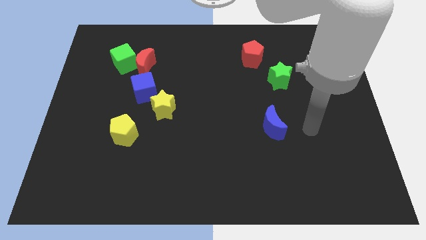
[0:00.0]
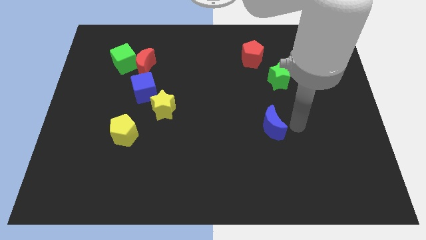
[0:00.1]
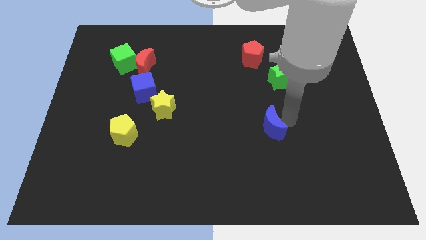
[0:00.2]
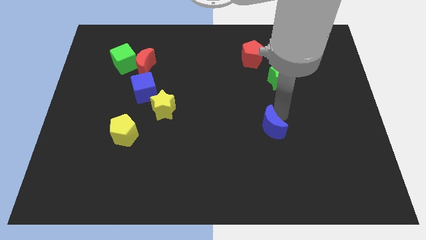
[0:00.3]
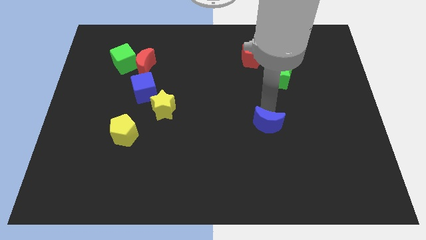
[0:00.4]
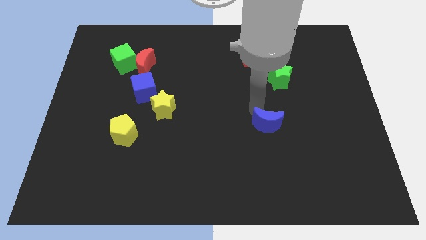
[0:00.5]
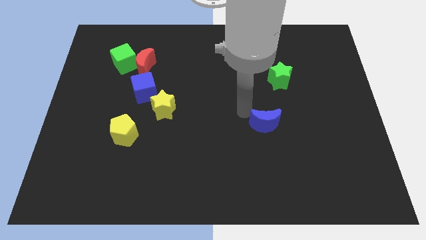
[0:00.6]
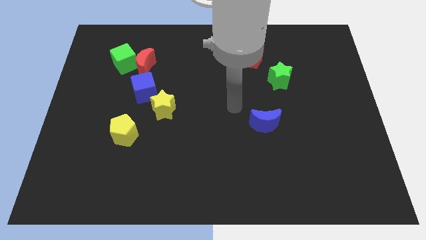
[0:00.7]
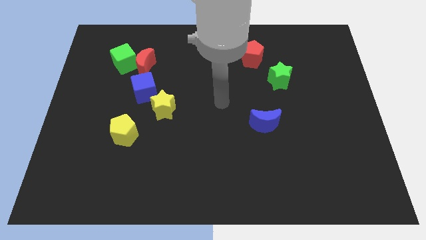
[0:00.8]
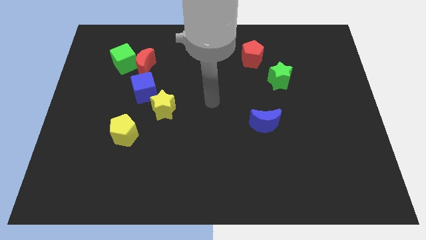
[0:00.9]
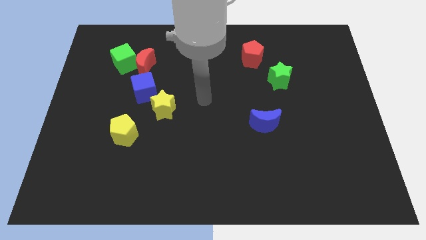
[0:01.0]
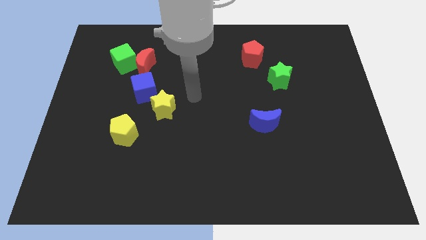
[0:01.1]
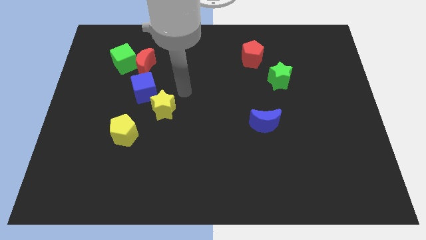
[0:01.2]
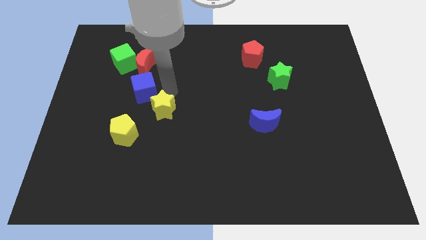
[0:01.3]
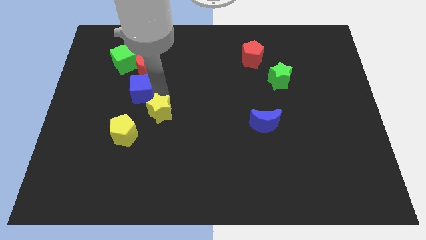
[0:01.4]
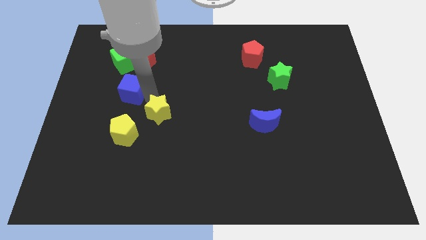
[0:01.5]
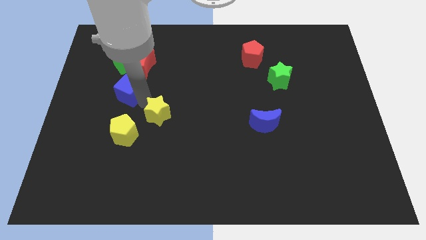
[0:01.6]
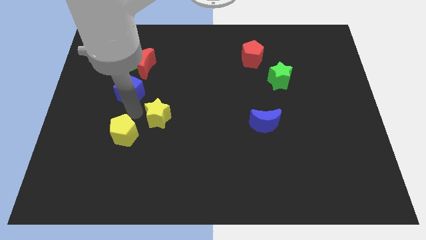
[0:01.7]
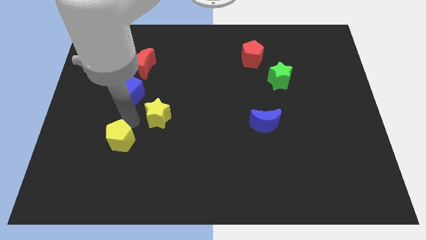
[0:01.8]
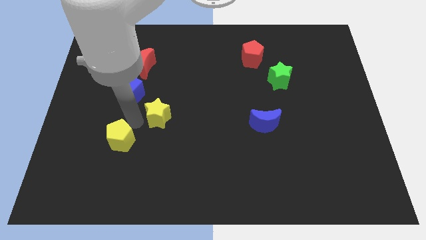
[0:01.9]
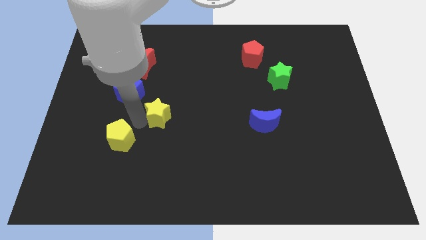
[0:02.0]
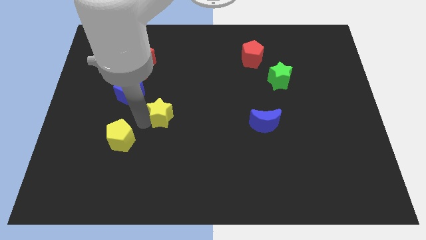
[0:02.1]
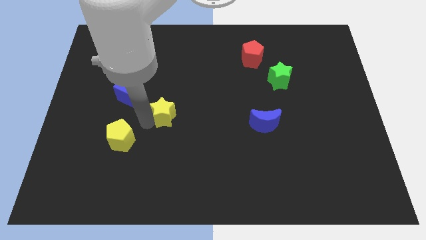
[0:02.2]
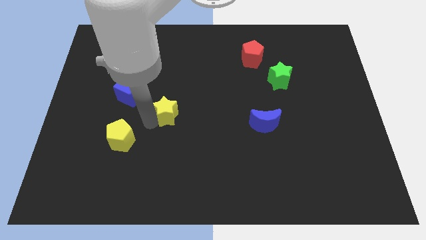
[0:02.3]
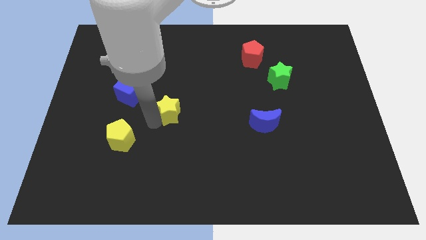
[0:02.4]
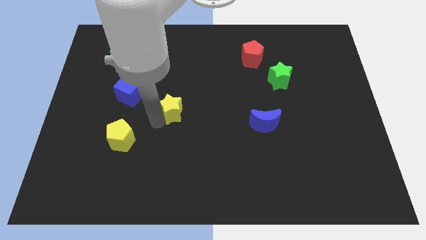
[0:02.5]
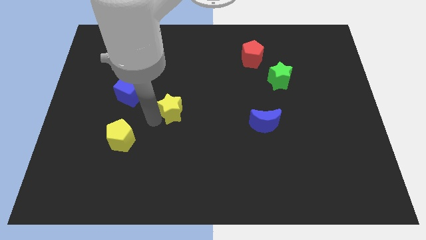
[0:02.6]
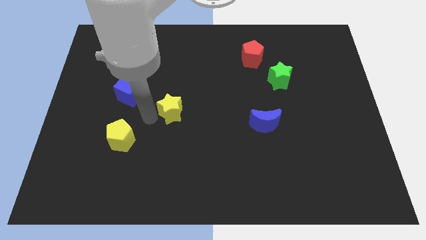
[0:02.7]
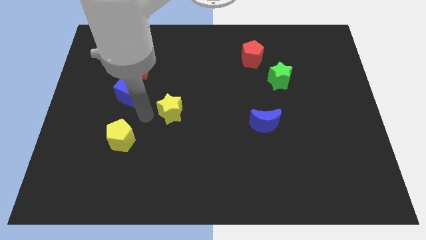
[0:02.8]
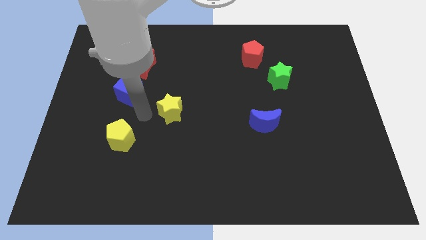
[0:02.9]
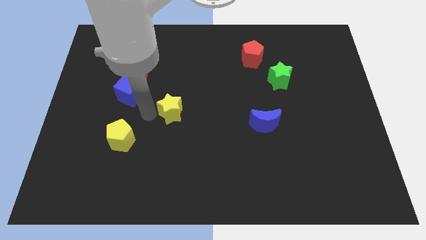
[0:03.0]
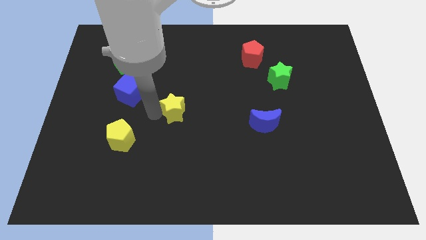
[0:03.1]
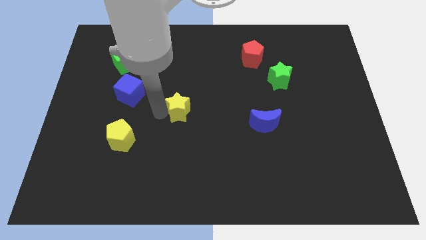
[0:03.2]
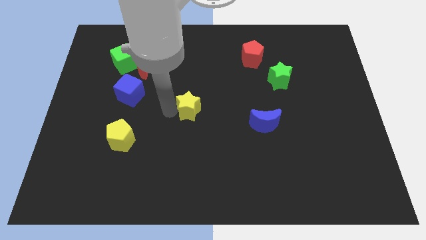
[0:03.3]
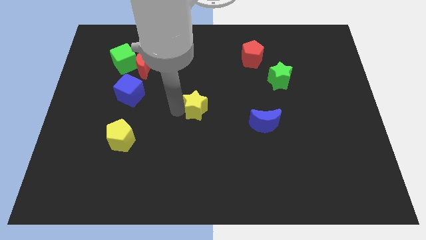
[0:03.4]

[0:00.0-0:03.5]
slightly push the yellow star right

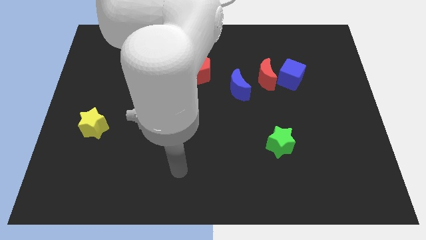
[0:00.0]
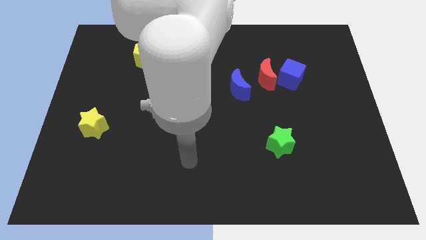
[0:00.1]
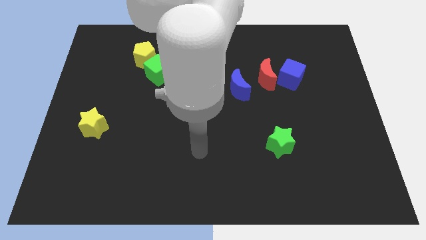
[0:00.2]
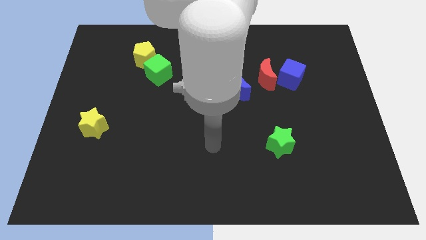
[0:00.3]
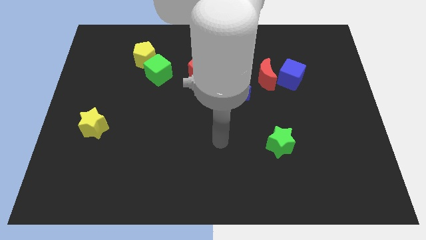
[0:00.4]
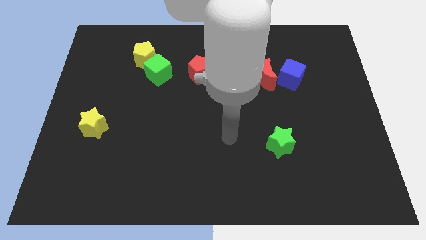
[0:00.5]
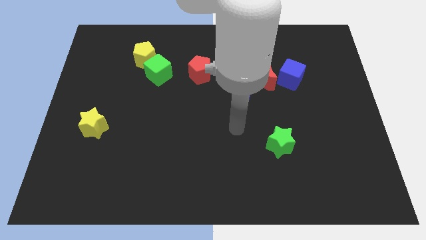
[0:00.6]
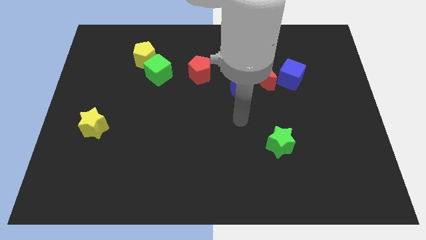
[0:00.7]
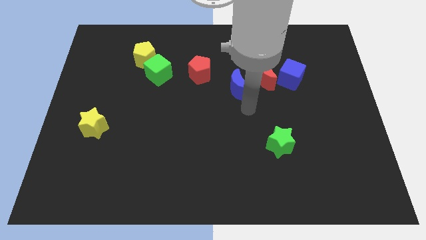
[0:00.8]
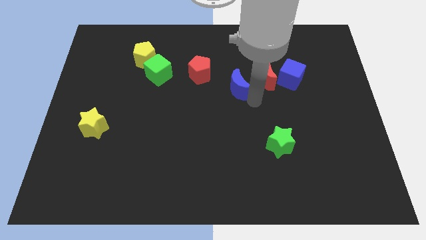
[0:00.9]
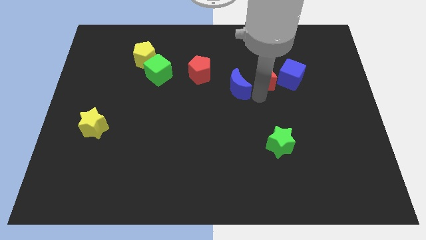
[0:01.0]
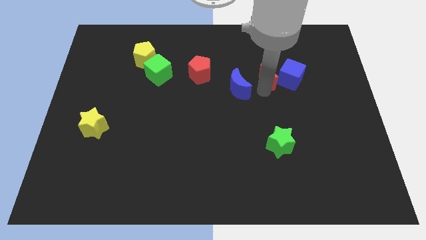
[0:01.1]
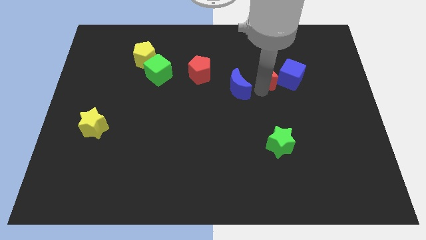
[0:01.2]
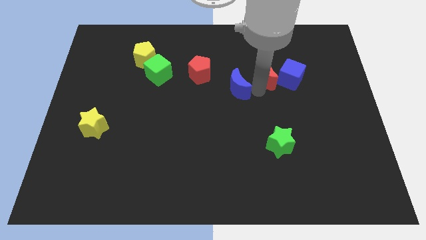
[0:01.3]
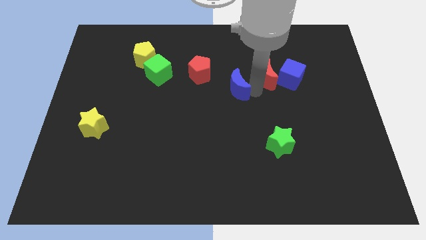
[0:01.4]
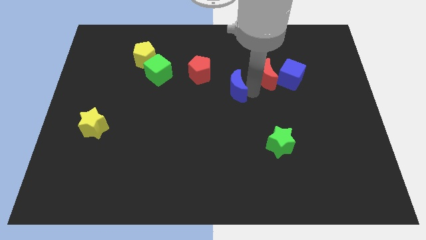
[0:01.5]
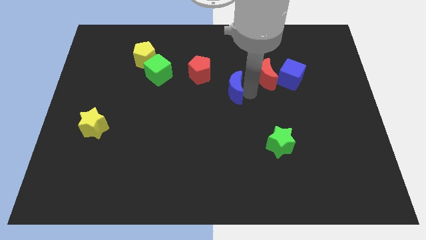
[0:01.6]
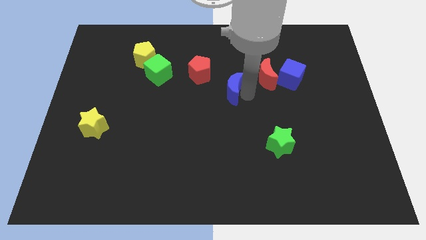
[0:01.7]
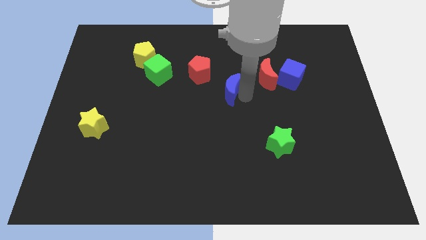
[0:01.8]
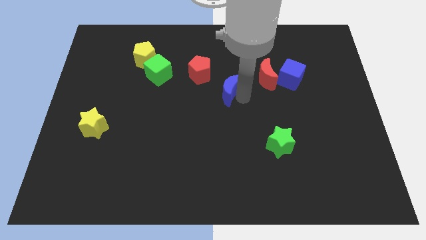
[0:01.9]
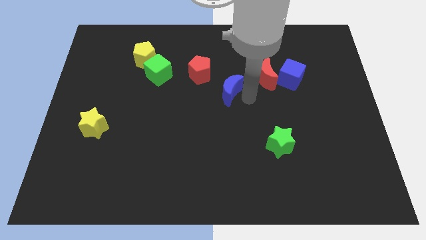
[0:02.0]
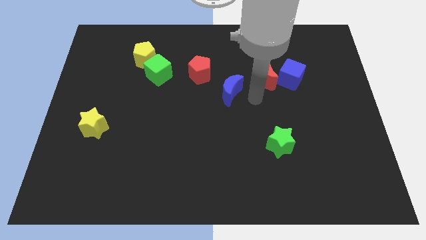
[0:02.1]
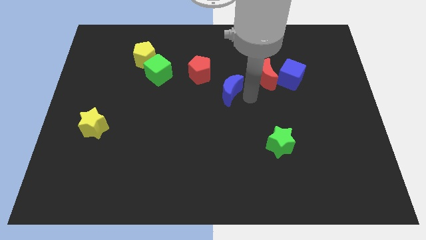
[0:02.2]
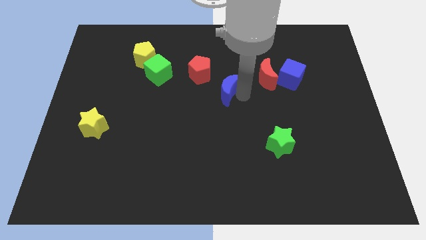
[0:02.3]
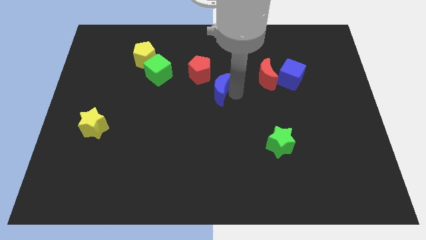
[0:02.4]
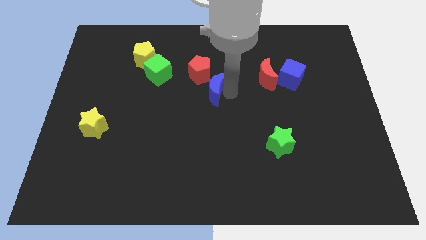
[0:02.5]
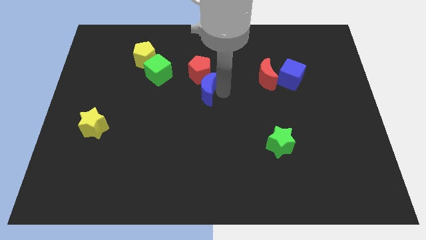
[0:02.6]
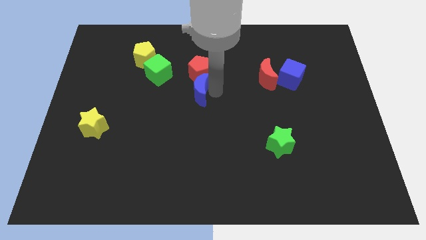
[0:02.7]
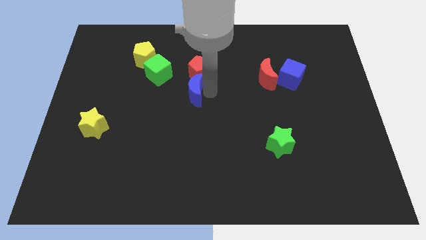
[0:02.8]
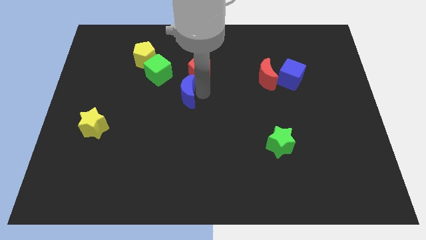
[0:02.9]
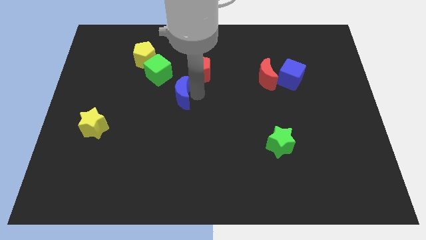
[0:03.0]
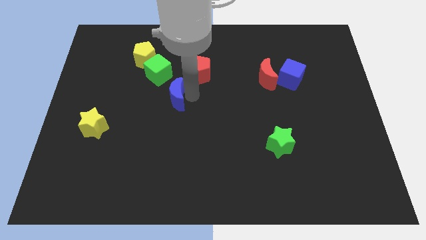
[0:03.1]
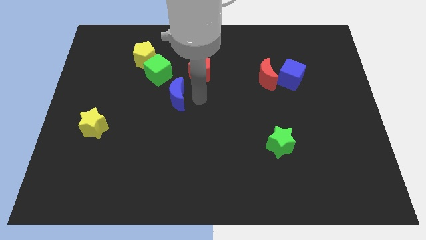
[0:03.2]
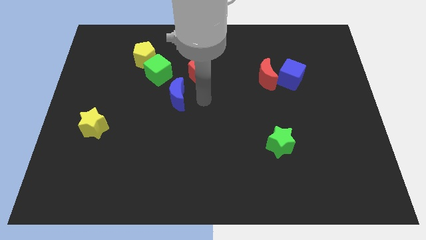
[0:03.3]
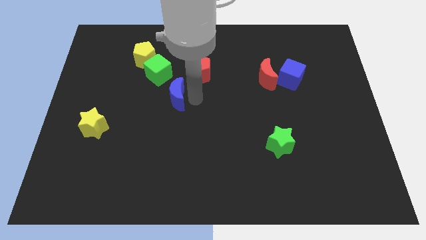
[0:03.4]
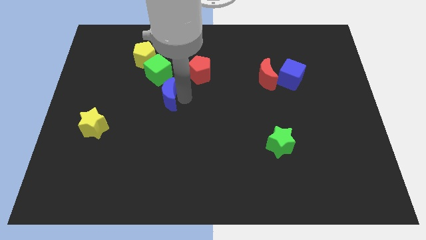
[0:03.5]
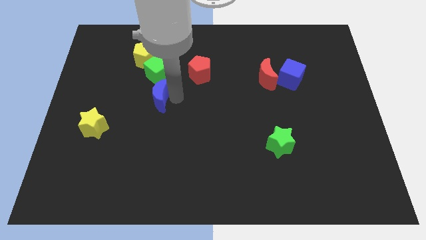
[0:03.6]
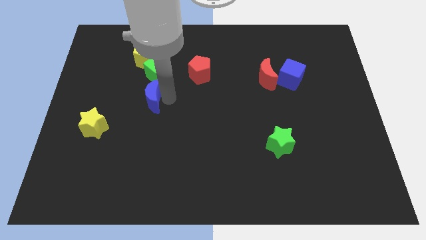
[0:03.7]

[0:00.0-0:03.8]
slide the blue moon to the left

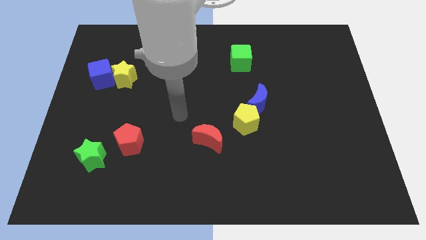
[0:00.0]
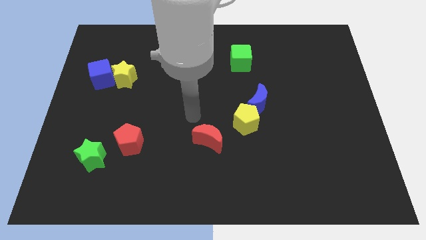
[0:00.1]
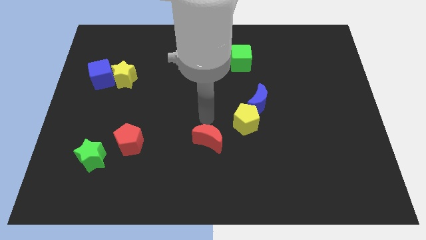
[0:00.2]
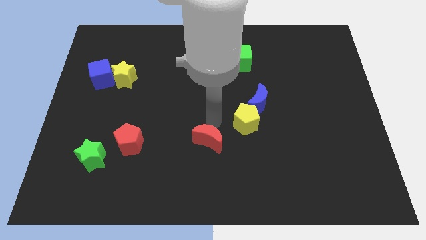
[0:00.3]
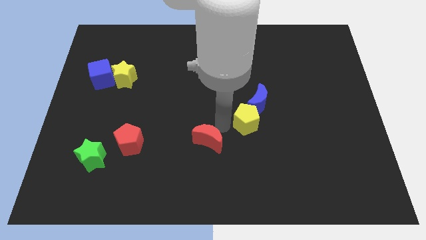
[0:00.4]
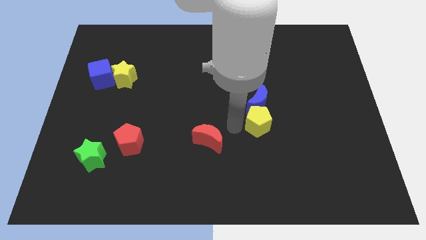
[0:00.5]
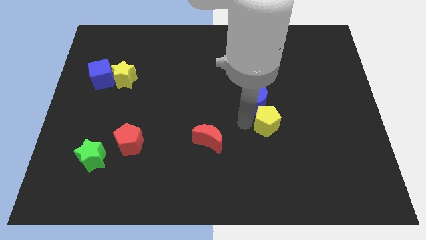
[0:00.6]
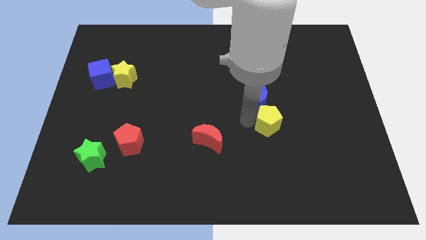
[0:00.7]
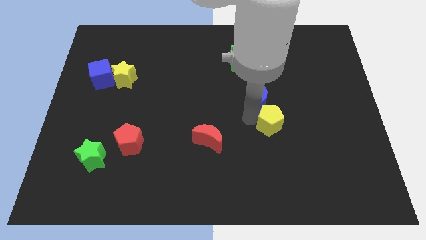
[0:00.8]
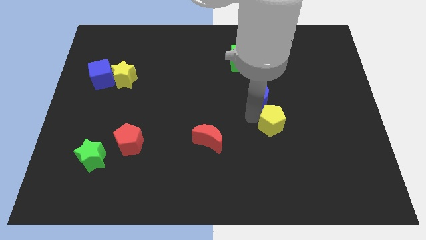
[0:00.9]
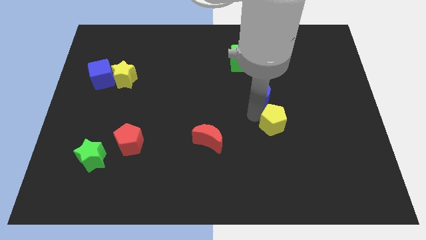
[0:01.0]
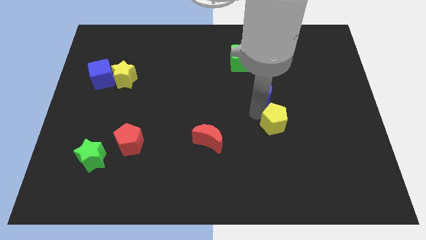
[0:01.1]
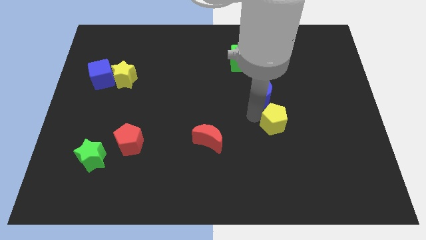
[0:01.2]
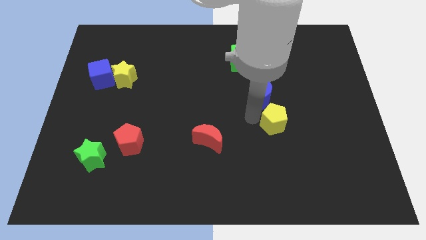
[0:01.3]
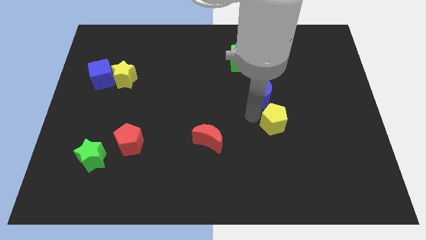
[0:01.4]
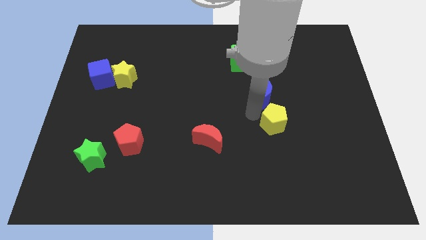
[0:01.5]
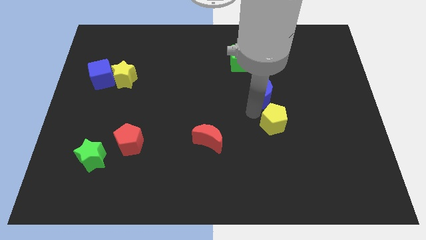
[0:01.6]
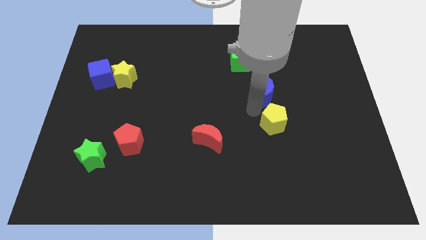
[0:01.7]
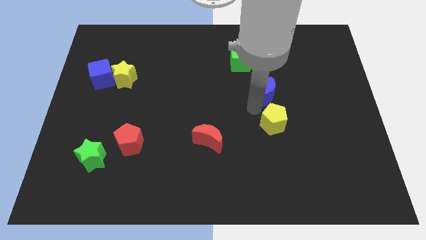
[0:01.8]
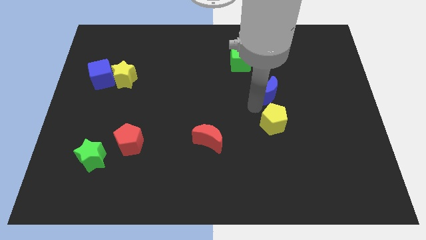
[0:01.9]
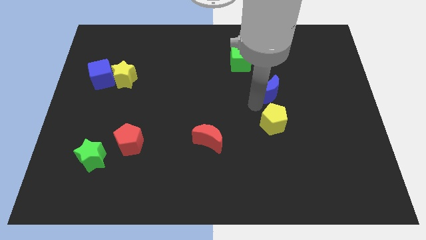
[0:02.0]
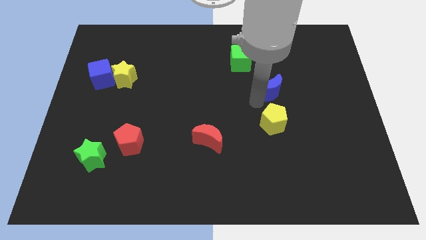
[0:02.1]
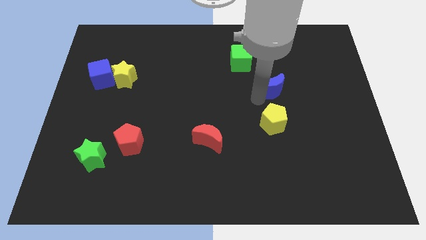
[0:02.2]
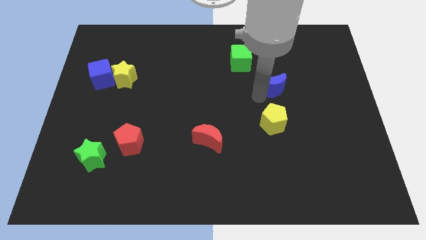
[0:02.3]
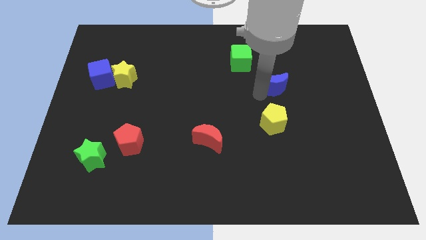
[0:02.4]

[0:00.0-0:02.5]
slightly slide the blue moon up and then to the right
